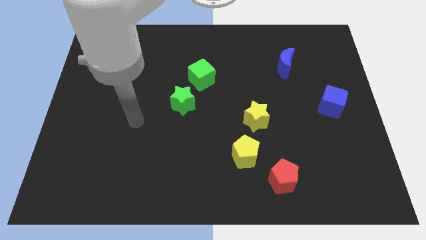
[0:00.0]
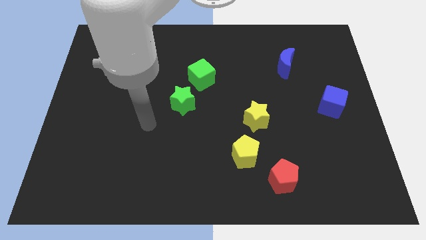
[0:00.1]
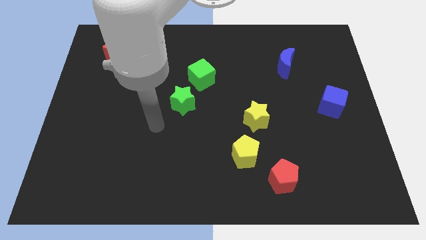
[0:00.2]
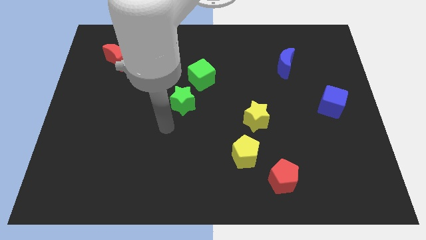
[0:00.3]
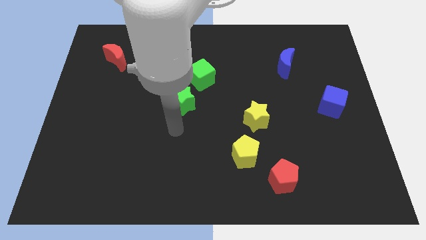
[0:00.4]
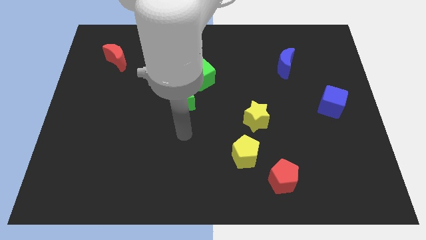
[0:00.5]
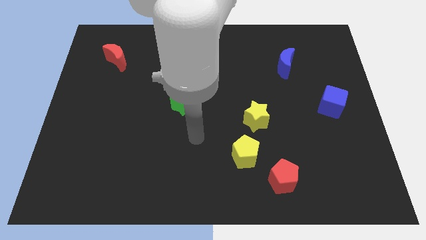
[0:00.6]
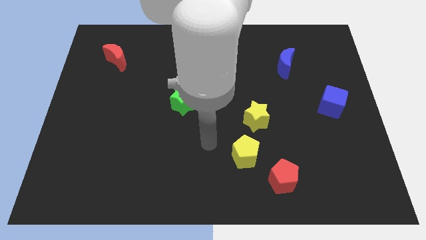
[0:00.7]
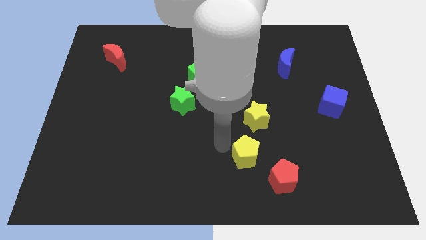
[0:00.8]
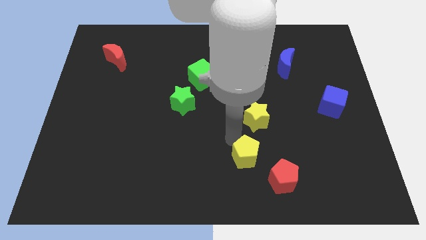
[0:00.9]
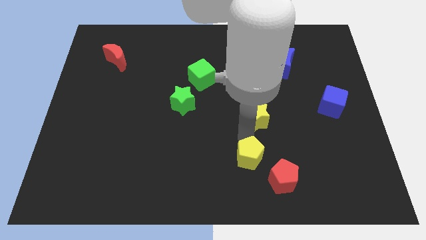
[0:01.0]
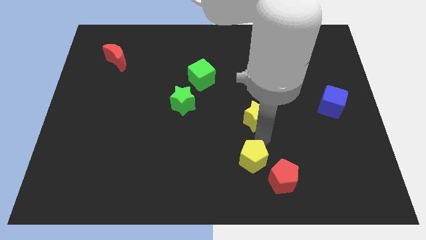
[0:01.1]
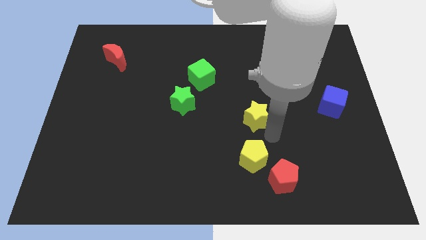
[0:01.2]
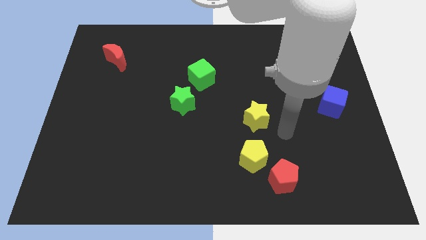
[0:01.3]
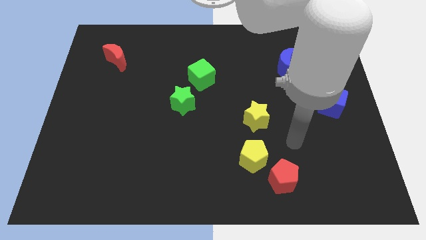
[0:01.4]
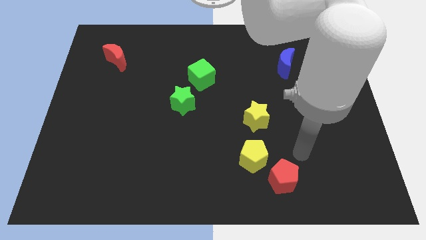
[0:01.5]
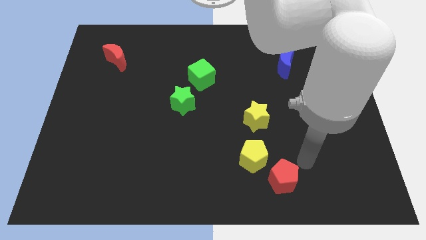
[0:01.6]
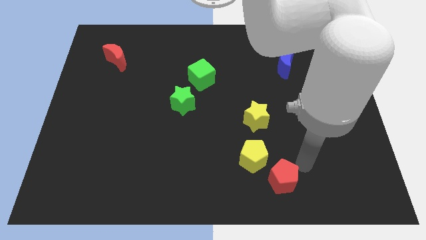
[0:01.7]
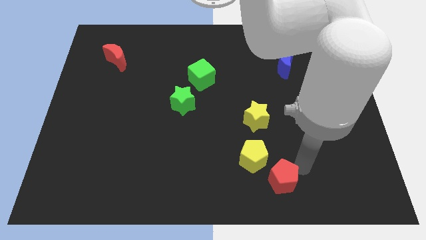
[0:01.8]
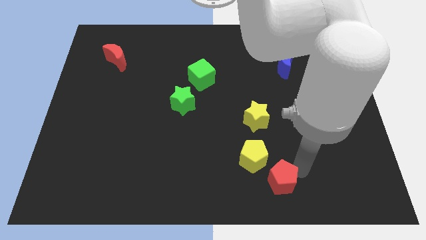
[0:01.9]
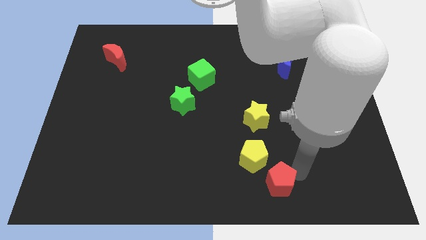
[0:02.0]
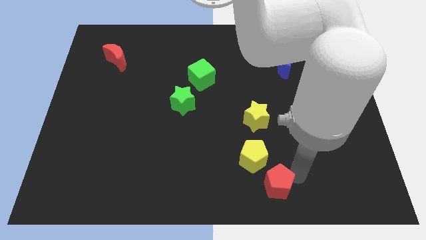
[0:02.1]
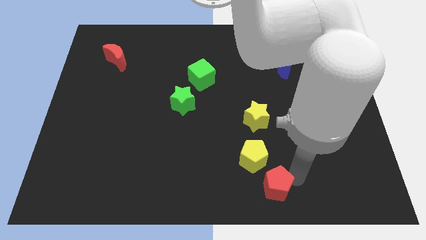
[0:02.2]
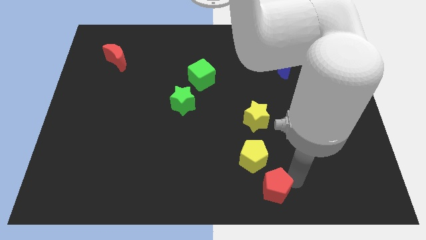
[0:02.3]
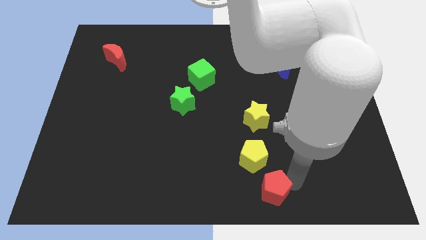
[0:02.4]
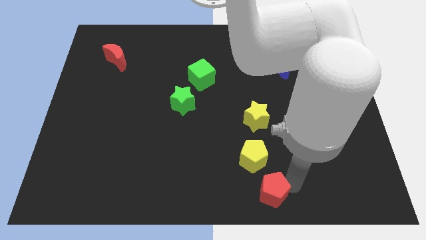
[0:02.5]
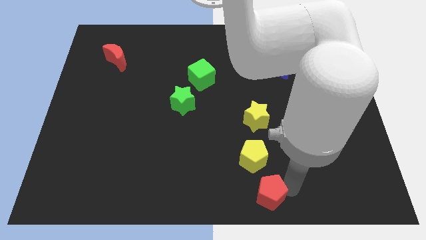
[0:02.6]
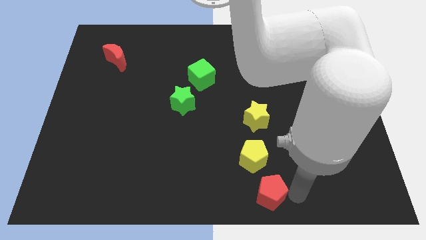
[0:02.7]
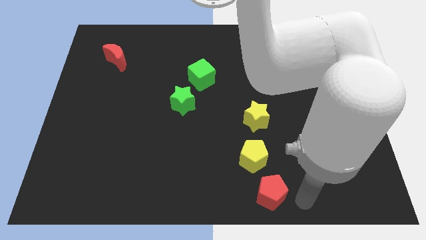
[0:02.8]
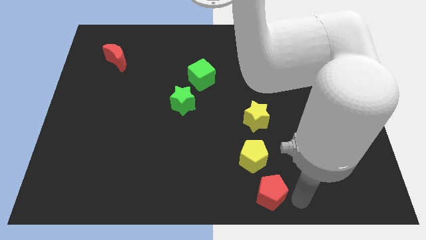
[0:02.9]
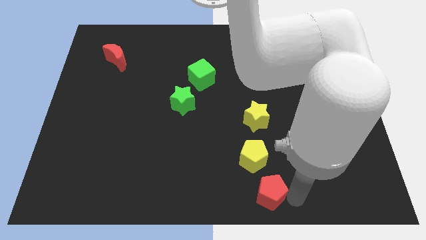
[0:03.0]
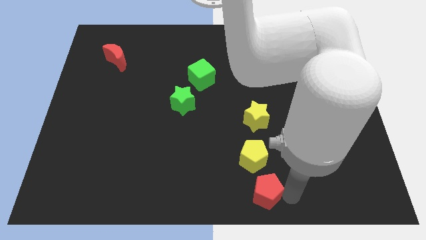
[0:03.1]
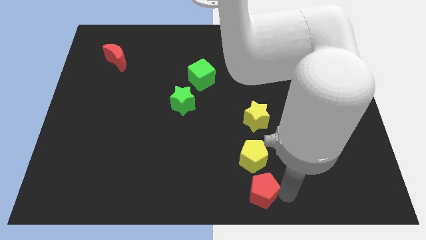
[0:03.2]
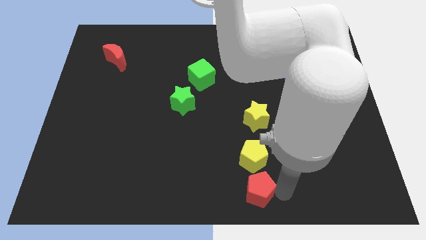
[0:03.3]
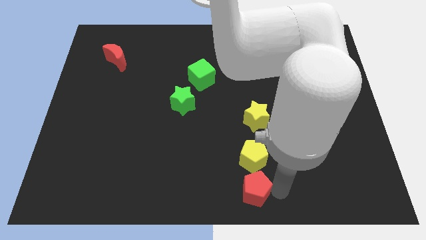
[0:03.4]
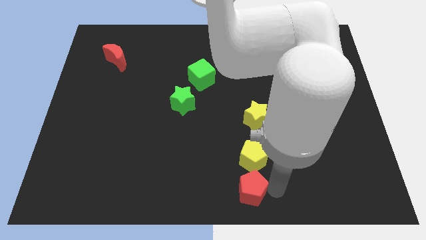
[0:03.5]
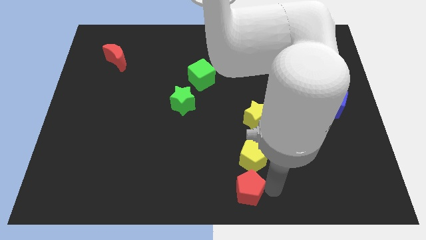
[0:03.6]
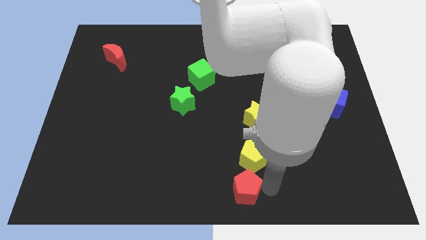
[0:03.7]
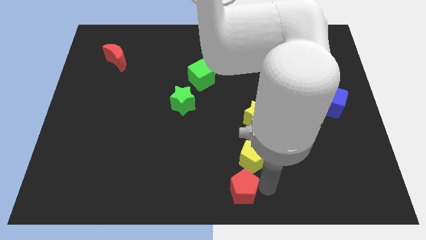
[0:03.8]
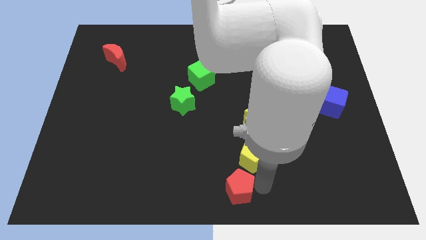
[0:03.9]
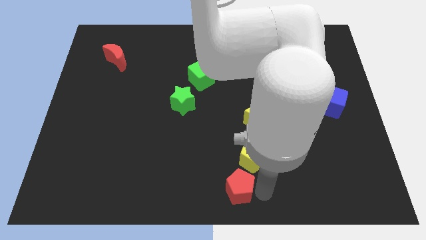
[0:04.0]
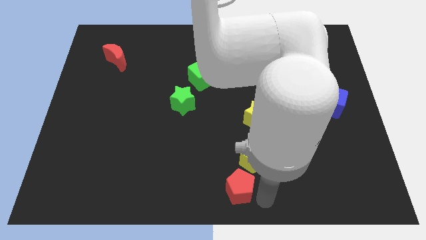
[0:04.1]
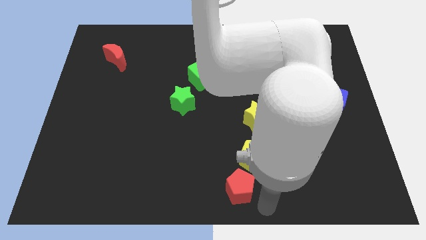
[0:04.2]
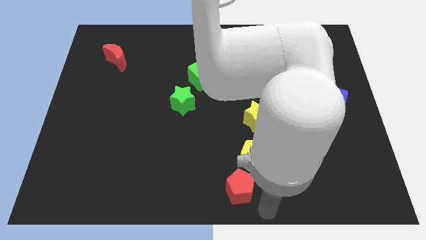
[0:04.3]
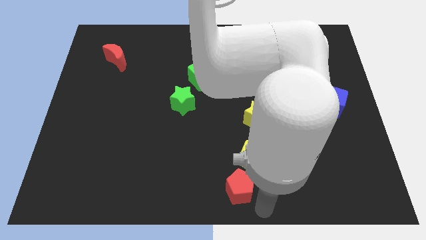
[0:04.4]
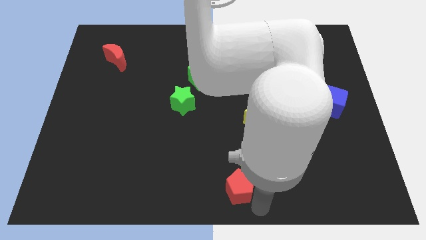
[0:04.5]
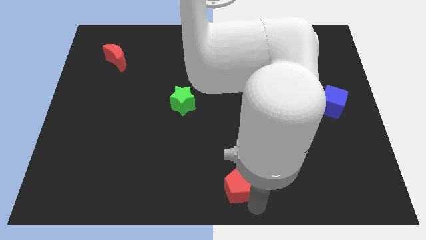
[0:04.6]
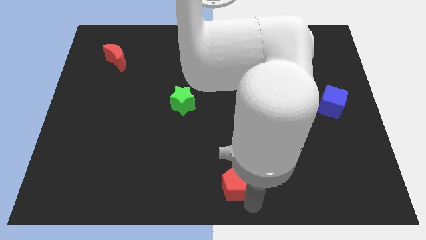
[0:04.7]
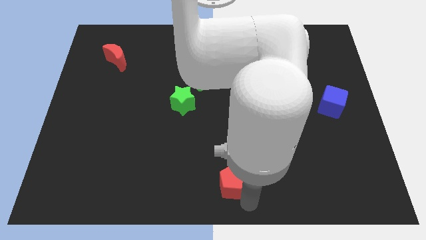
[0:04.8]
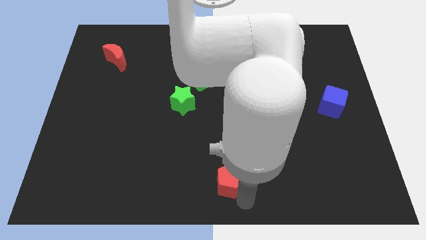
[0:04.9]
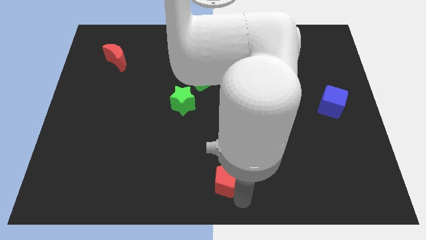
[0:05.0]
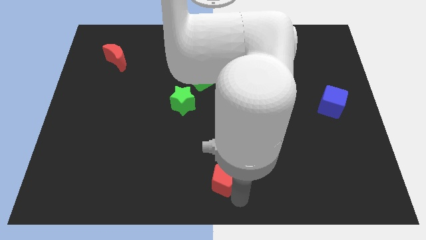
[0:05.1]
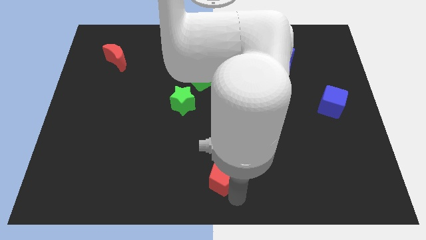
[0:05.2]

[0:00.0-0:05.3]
push the red pentagon to the left of the yellow pentagon

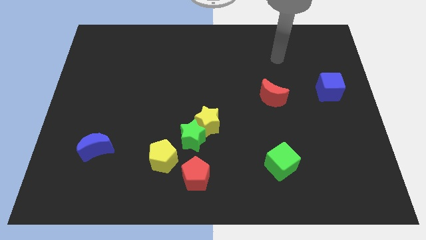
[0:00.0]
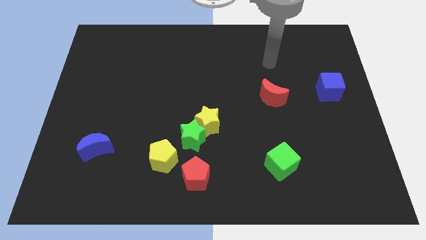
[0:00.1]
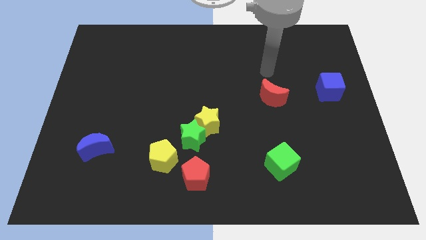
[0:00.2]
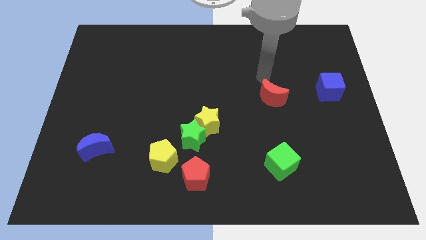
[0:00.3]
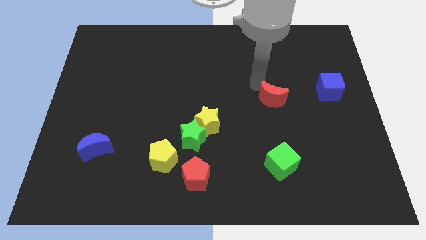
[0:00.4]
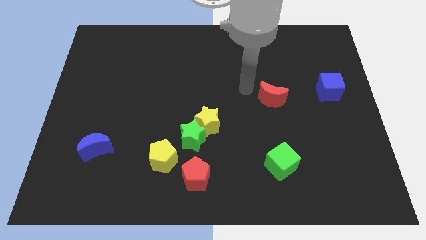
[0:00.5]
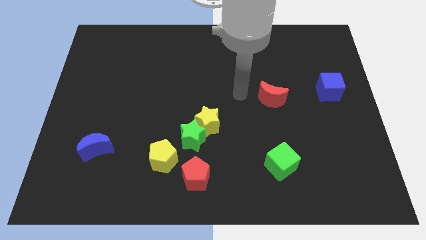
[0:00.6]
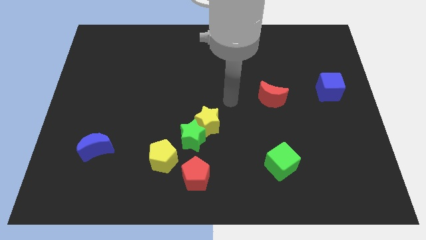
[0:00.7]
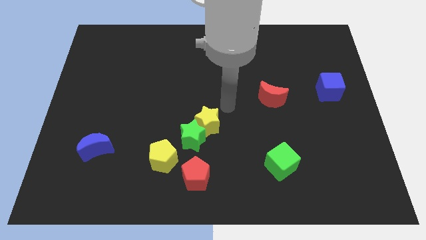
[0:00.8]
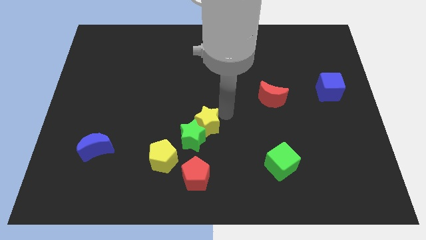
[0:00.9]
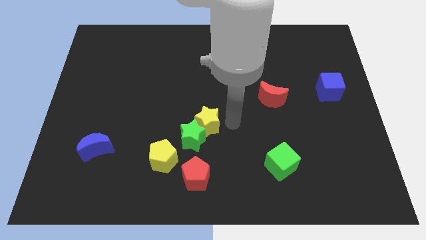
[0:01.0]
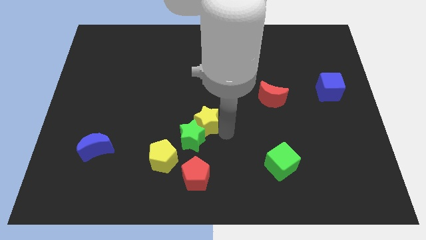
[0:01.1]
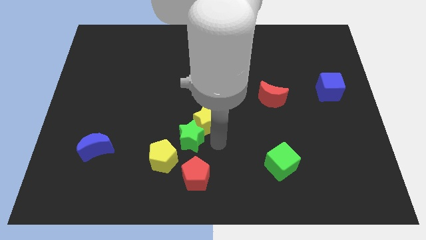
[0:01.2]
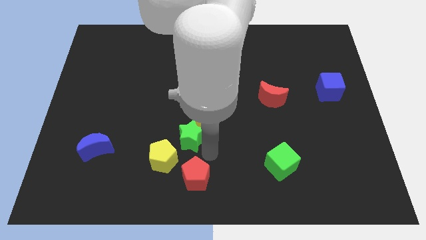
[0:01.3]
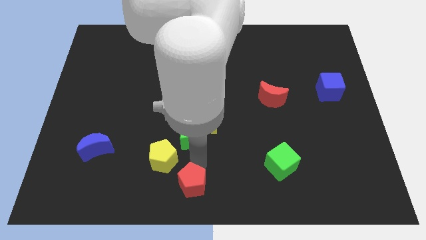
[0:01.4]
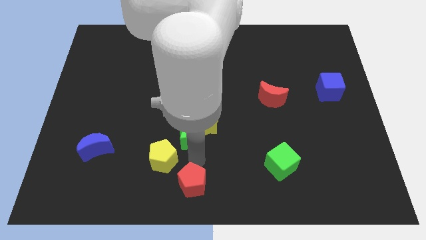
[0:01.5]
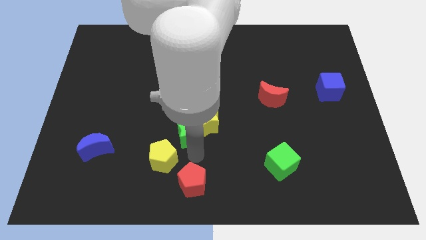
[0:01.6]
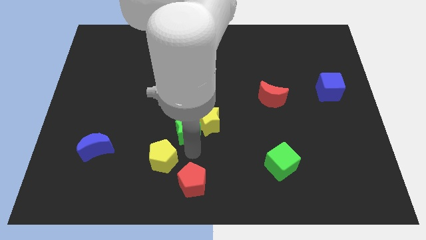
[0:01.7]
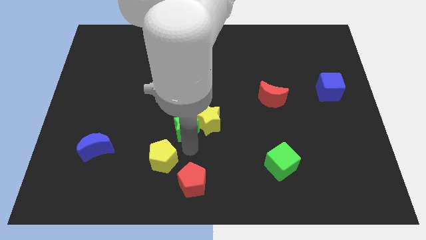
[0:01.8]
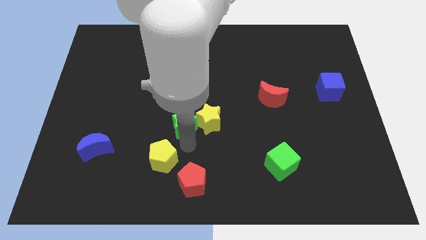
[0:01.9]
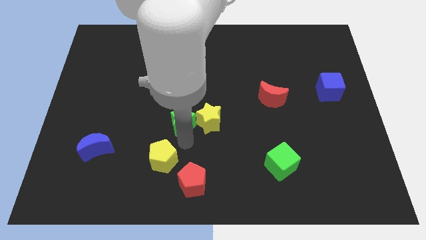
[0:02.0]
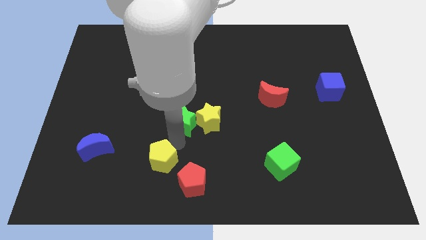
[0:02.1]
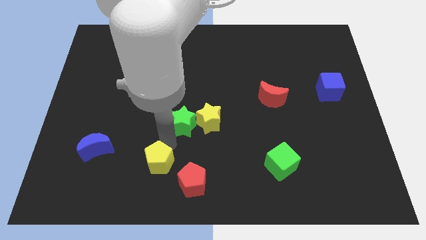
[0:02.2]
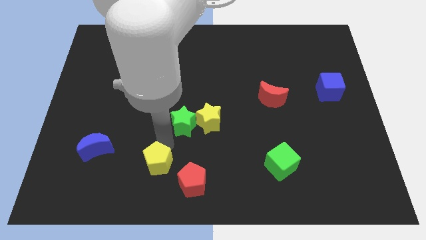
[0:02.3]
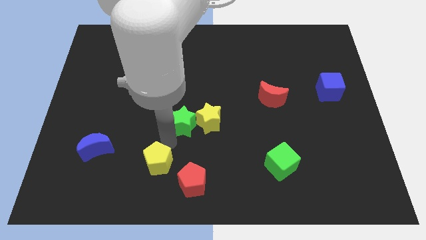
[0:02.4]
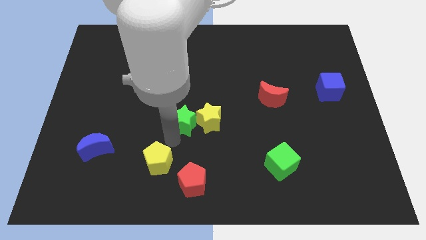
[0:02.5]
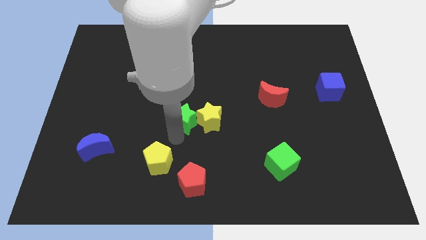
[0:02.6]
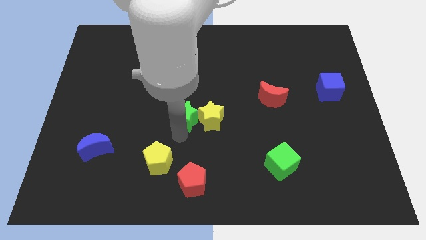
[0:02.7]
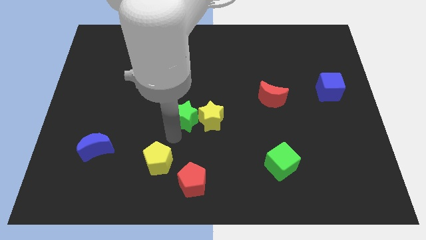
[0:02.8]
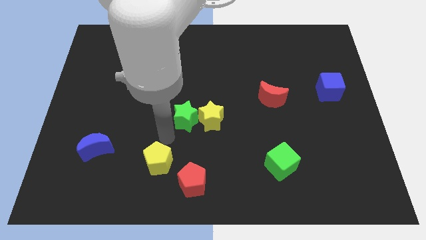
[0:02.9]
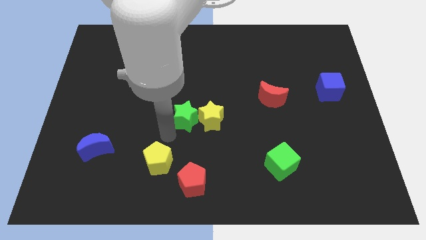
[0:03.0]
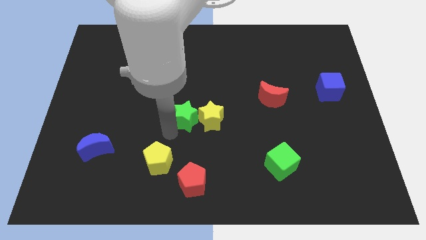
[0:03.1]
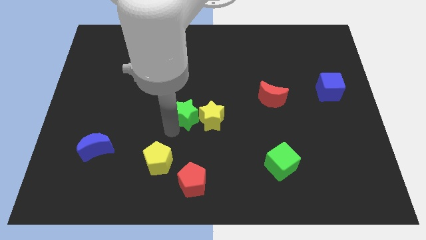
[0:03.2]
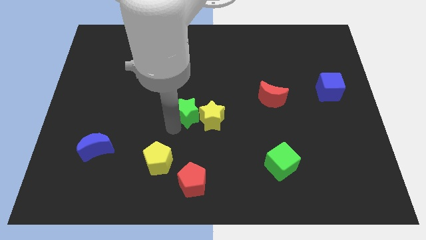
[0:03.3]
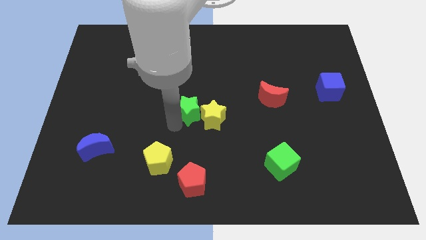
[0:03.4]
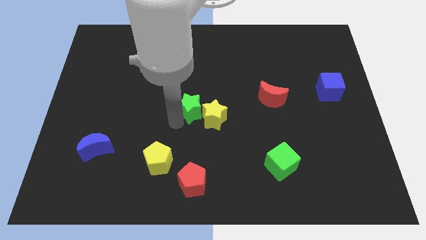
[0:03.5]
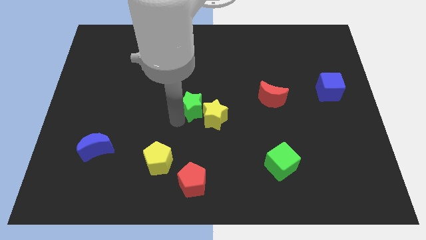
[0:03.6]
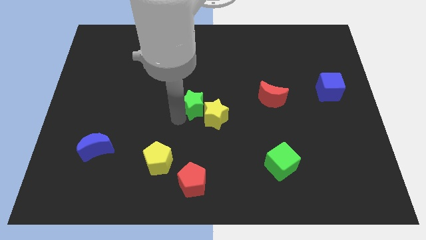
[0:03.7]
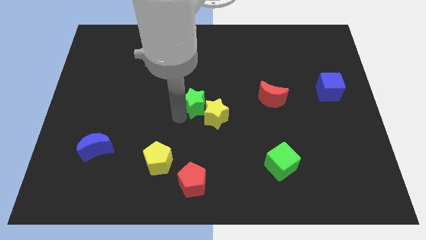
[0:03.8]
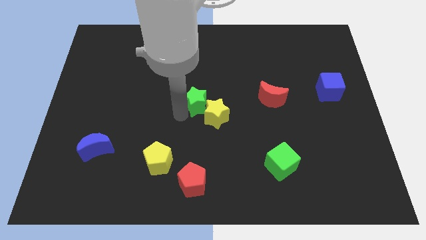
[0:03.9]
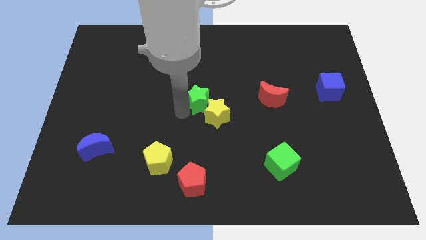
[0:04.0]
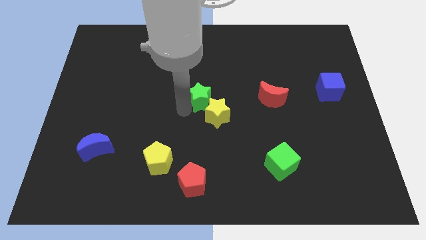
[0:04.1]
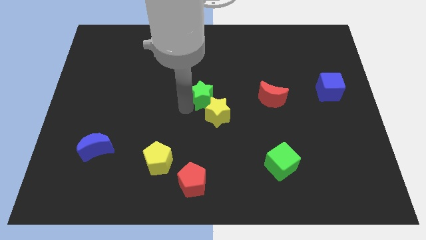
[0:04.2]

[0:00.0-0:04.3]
slide the green star to the left of the red moon
